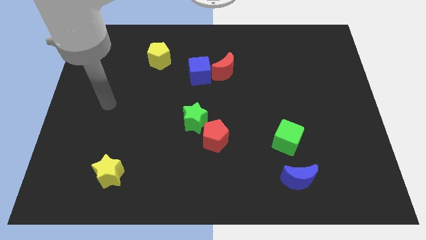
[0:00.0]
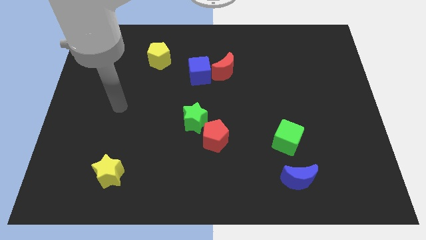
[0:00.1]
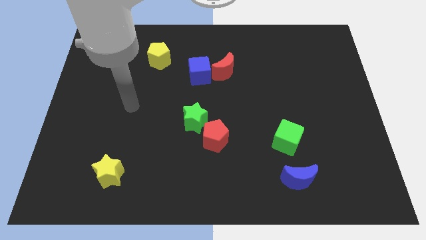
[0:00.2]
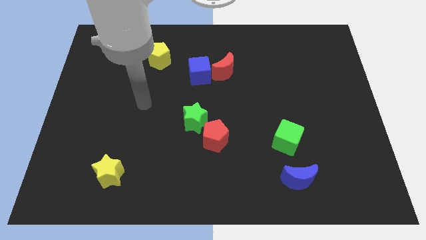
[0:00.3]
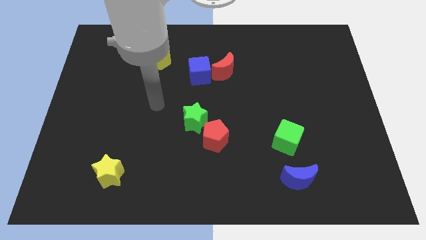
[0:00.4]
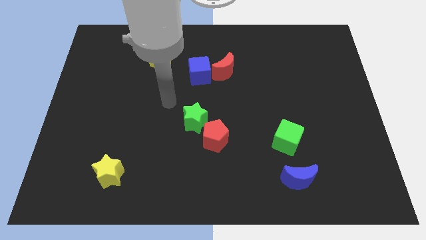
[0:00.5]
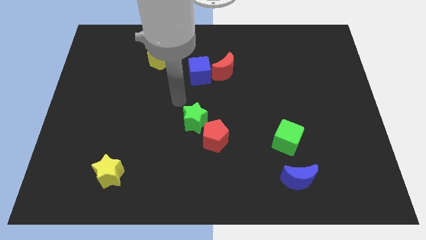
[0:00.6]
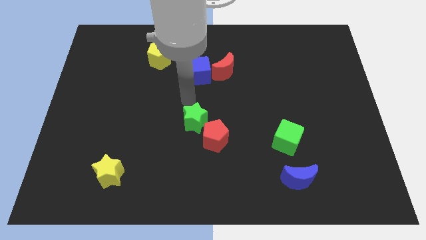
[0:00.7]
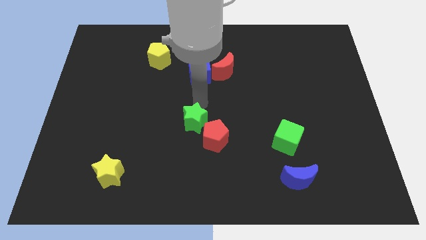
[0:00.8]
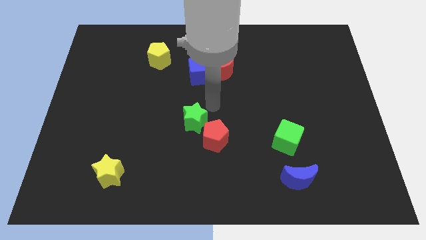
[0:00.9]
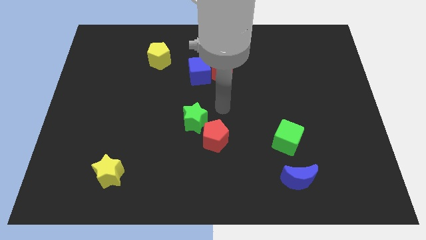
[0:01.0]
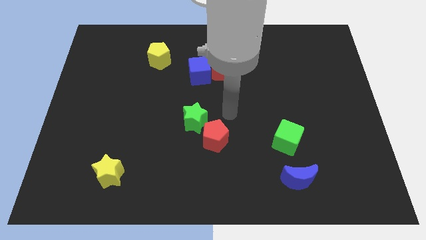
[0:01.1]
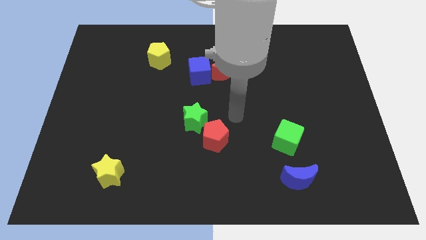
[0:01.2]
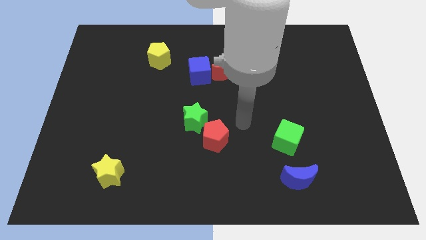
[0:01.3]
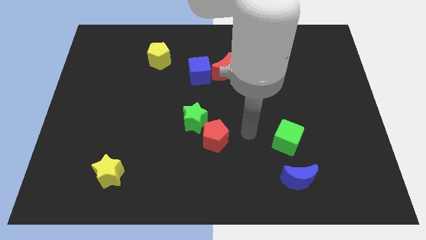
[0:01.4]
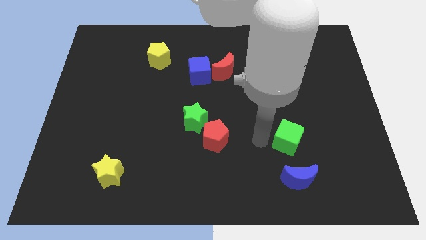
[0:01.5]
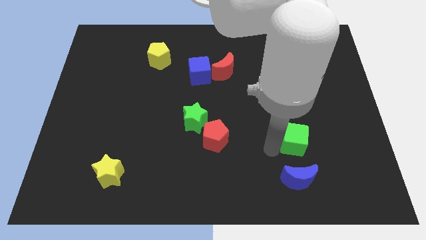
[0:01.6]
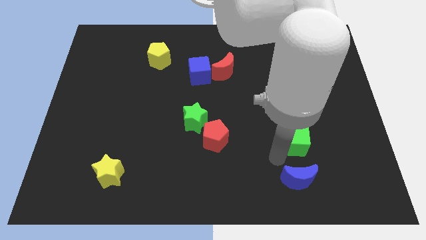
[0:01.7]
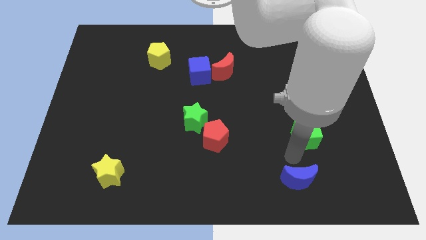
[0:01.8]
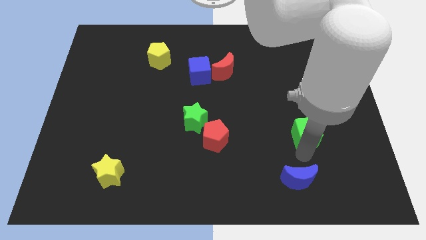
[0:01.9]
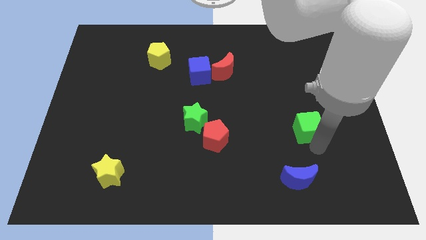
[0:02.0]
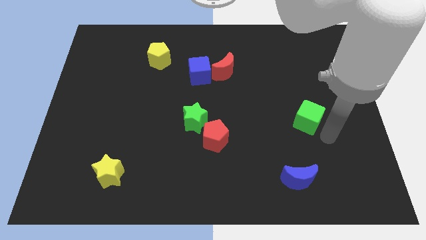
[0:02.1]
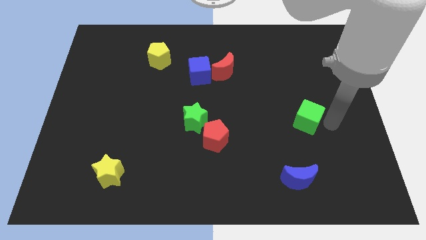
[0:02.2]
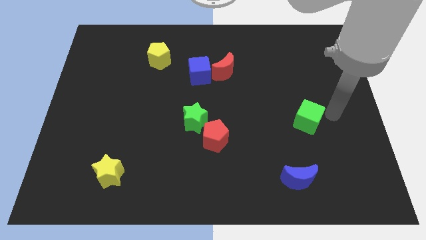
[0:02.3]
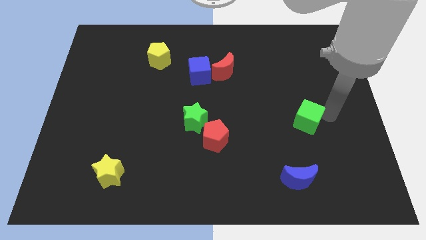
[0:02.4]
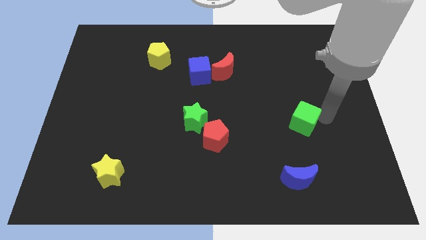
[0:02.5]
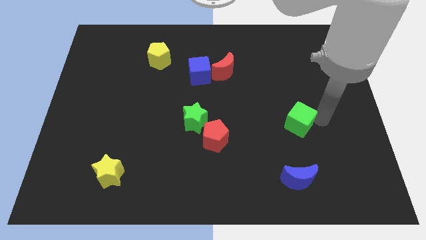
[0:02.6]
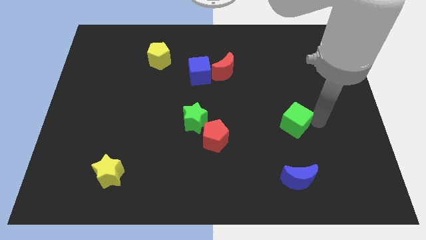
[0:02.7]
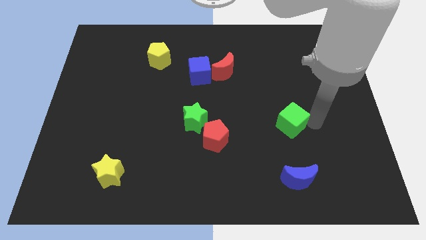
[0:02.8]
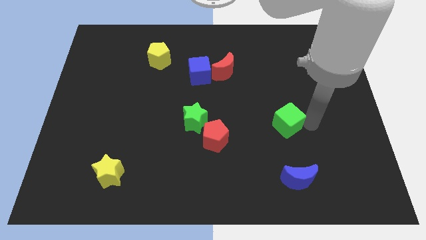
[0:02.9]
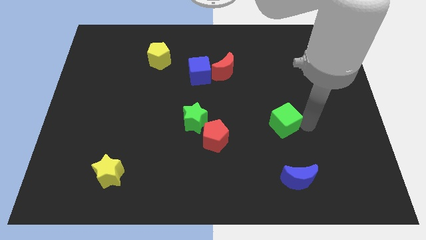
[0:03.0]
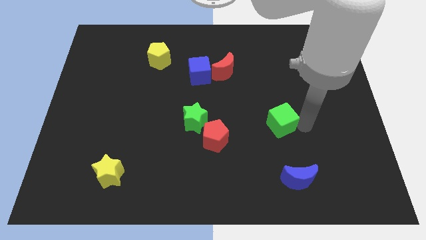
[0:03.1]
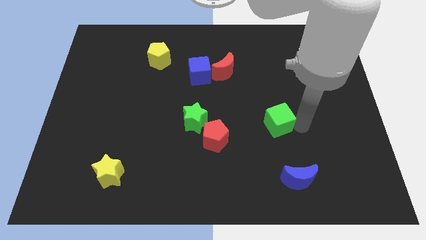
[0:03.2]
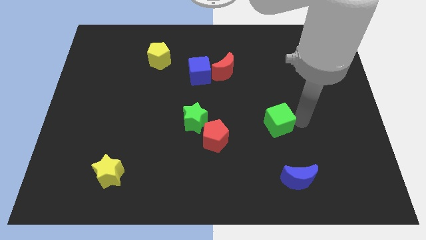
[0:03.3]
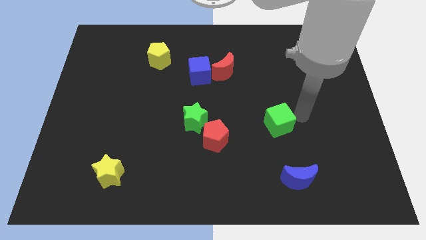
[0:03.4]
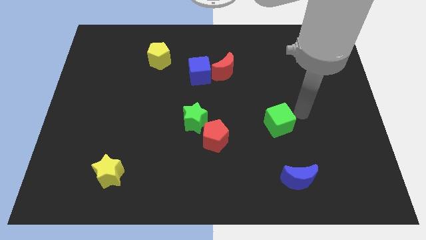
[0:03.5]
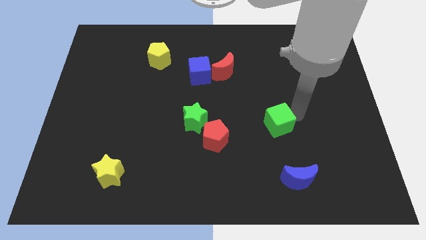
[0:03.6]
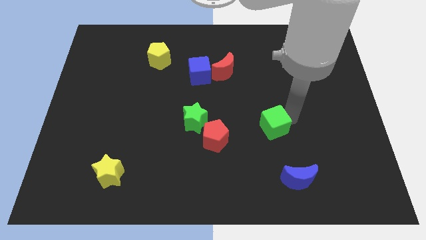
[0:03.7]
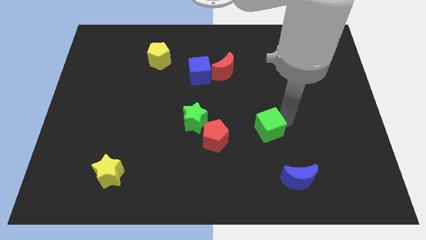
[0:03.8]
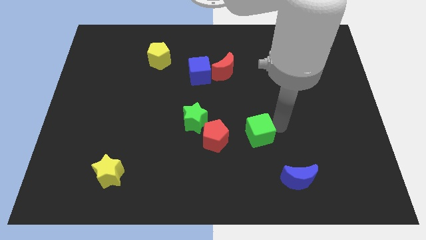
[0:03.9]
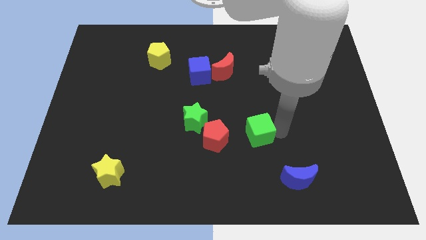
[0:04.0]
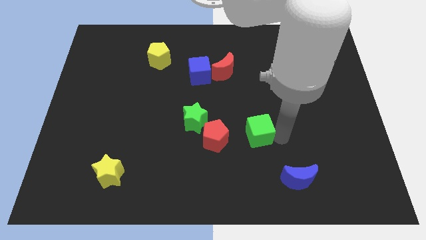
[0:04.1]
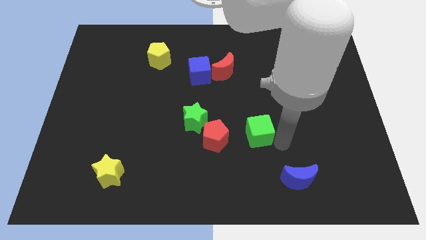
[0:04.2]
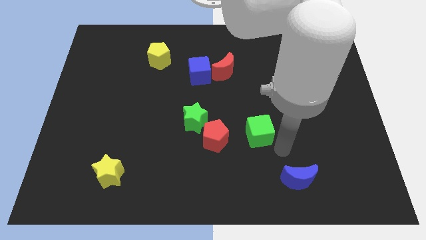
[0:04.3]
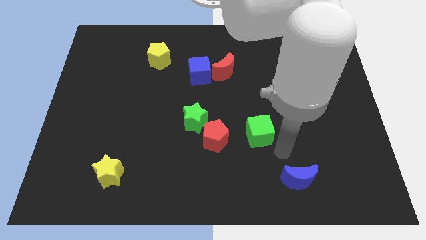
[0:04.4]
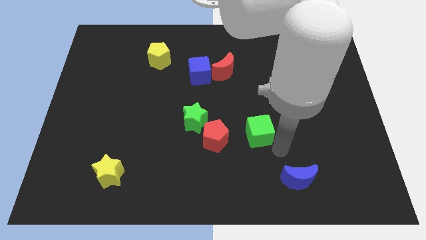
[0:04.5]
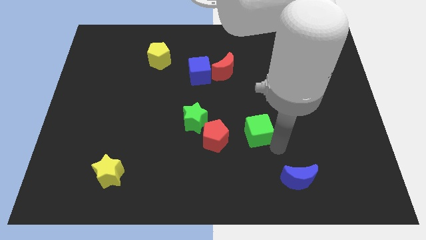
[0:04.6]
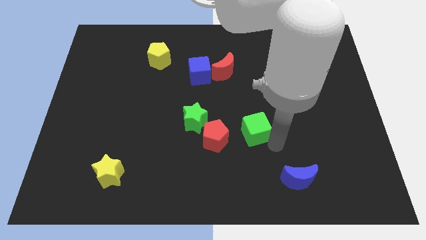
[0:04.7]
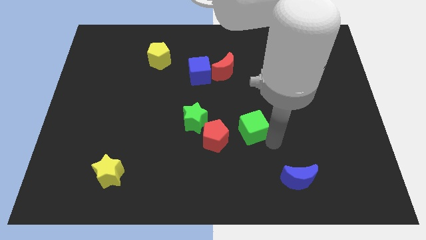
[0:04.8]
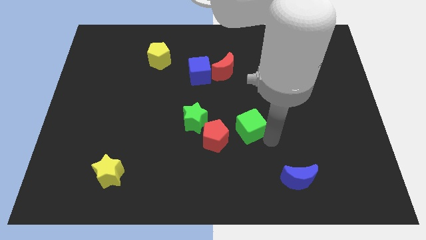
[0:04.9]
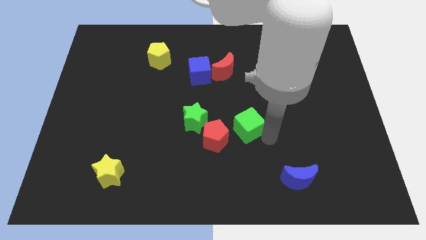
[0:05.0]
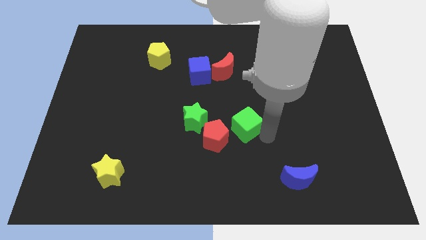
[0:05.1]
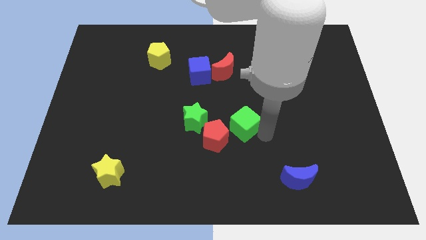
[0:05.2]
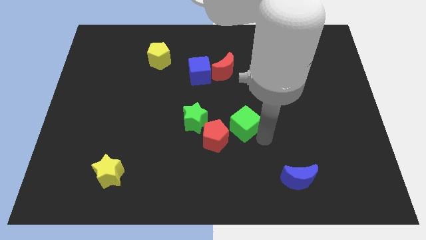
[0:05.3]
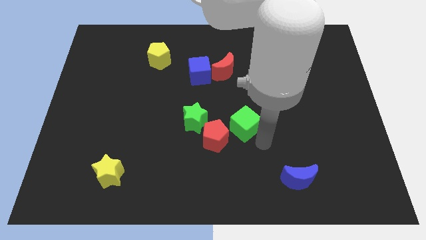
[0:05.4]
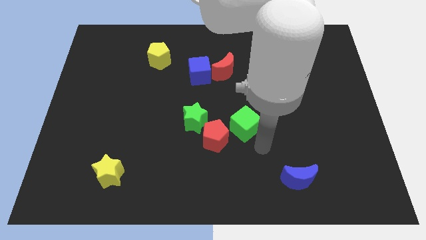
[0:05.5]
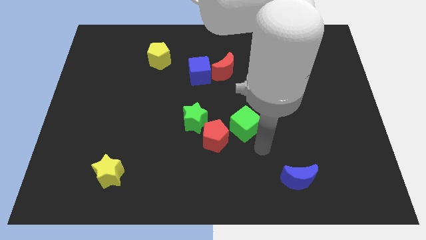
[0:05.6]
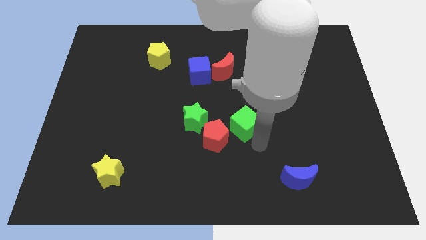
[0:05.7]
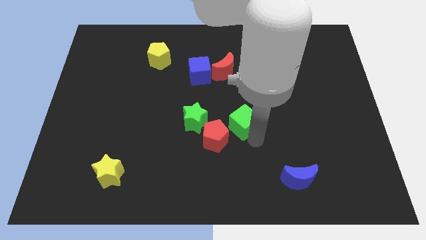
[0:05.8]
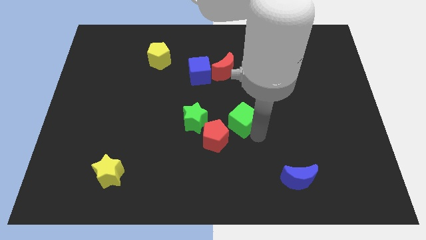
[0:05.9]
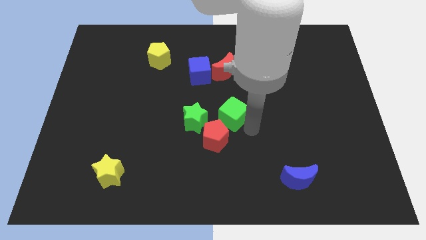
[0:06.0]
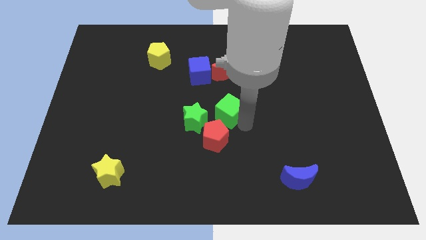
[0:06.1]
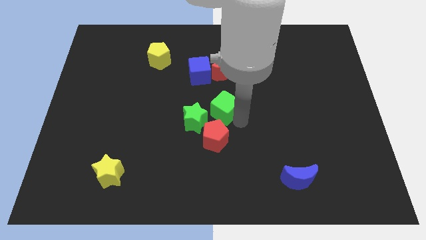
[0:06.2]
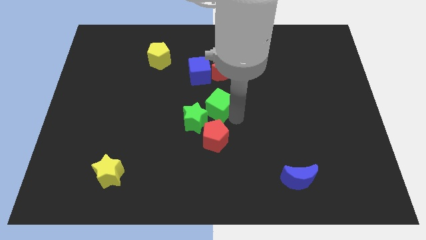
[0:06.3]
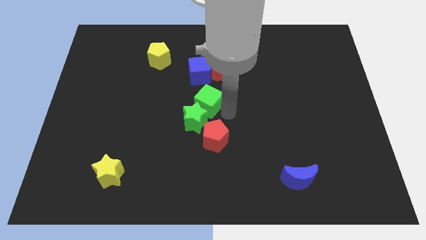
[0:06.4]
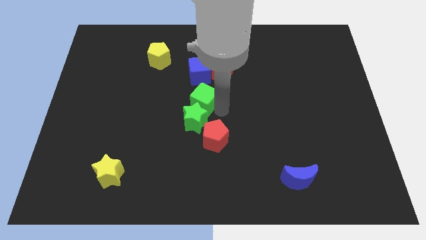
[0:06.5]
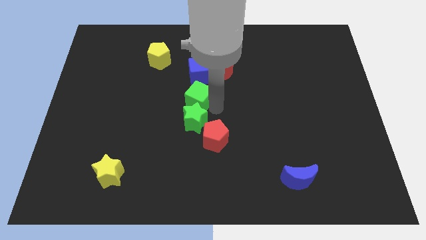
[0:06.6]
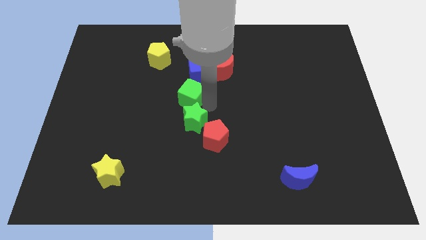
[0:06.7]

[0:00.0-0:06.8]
move the green cube to the bottom left side of the blue cube

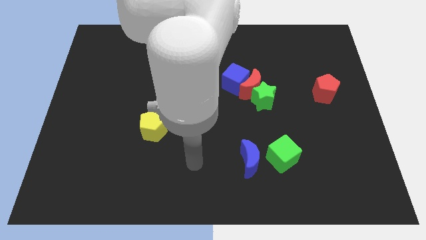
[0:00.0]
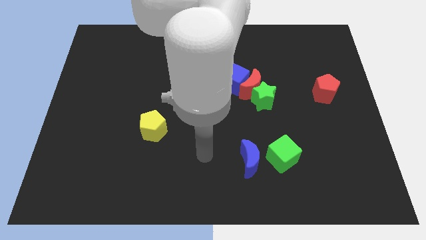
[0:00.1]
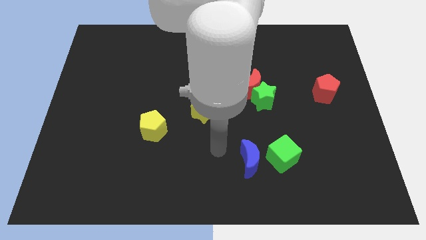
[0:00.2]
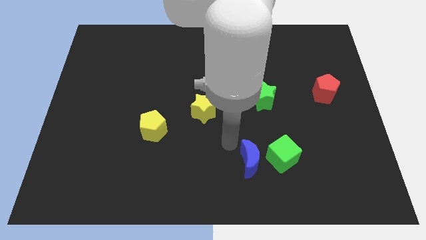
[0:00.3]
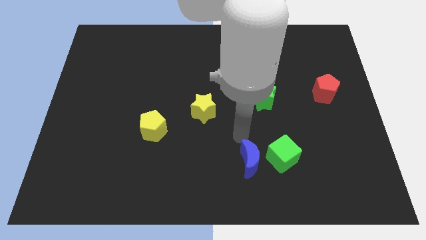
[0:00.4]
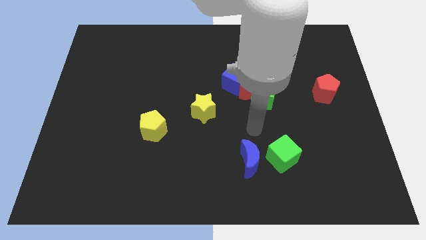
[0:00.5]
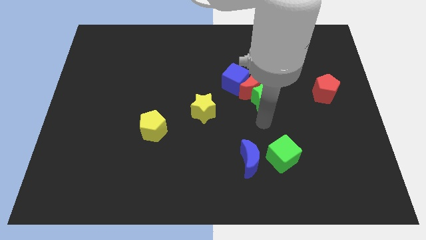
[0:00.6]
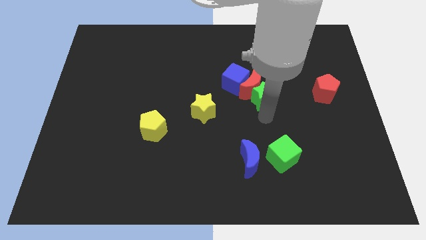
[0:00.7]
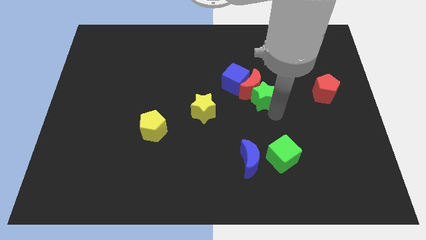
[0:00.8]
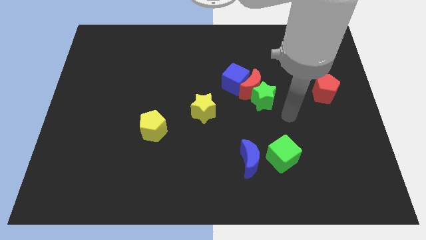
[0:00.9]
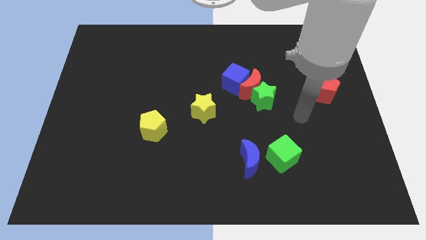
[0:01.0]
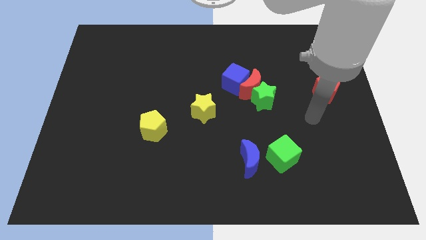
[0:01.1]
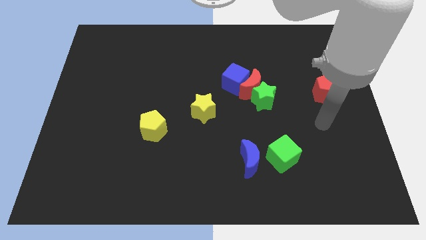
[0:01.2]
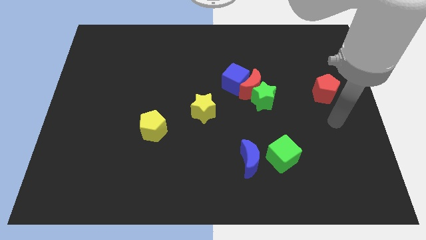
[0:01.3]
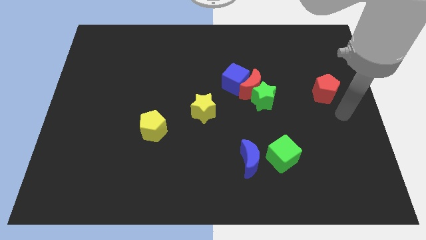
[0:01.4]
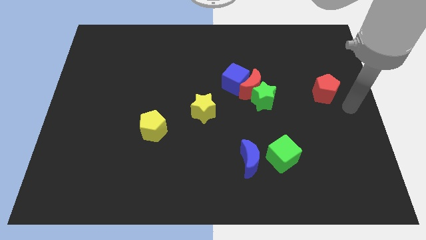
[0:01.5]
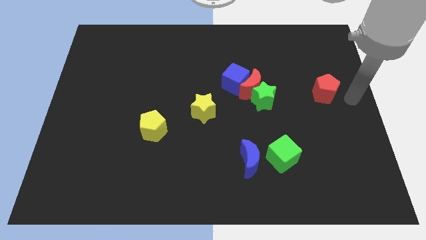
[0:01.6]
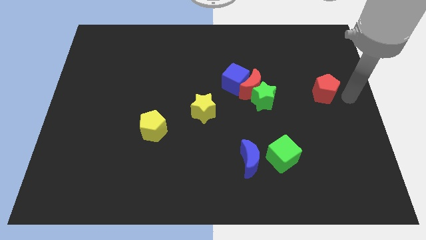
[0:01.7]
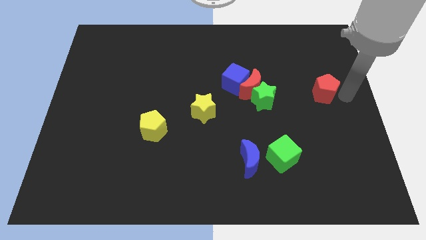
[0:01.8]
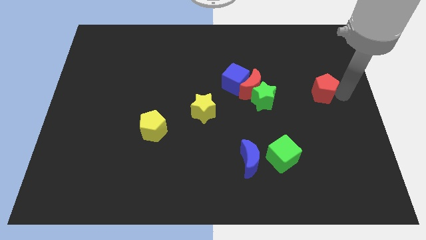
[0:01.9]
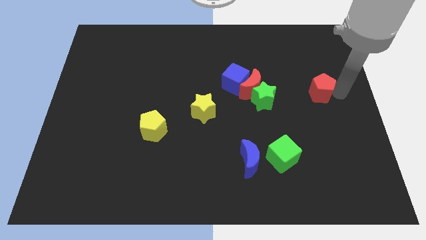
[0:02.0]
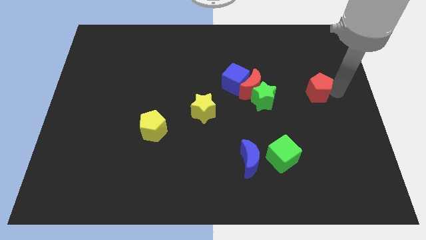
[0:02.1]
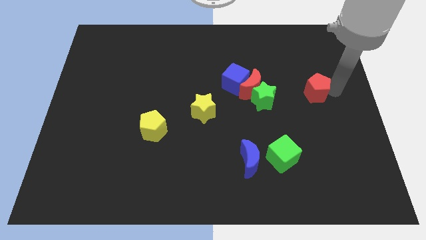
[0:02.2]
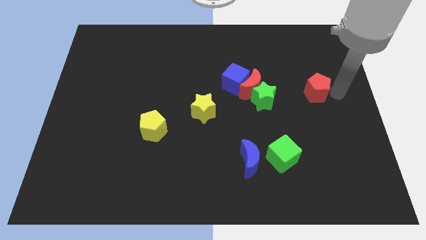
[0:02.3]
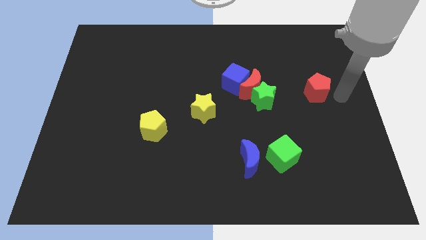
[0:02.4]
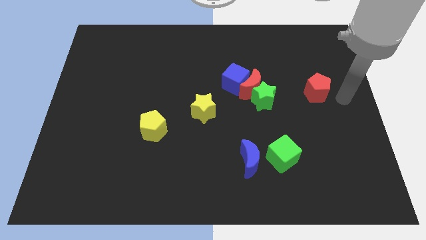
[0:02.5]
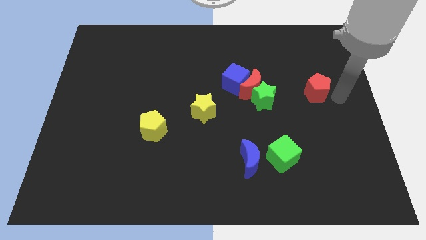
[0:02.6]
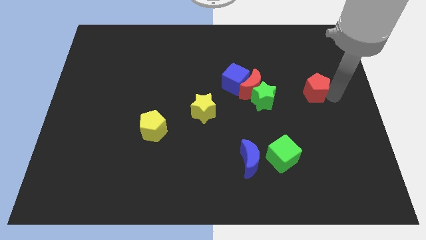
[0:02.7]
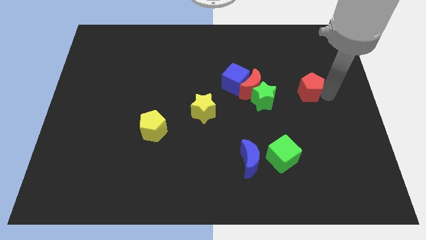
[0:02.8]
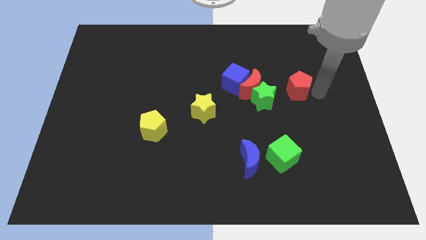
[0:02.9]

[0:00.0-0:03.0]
push the red pentagon to the right of the blue cube
